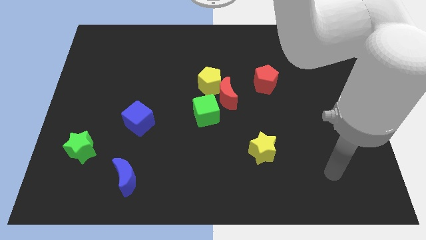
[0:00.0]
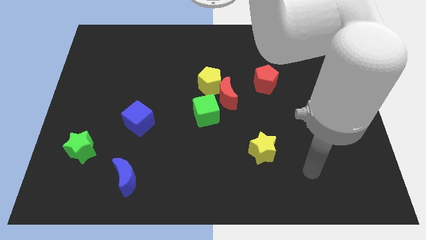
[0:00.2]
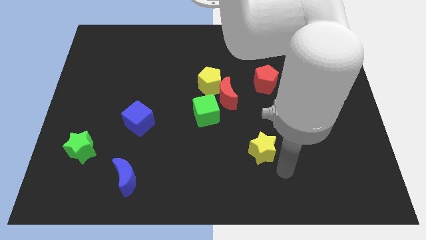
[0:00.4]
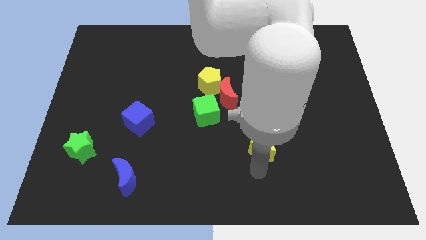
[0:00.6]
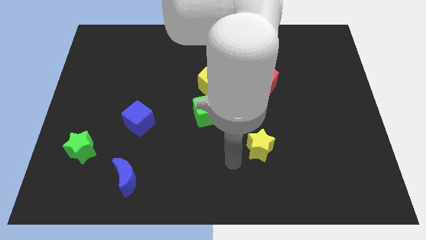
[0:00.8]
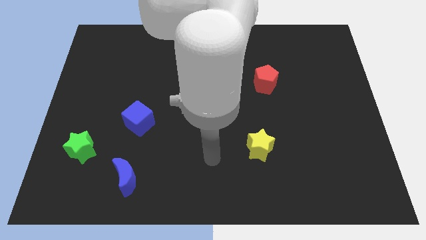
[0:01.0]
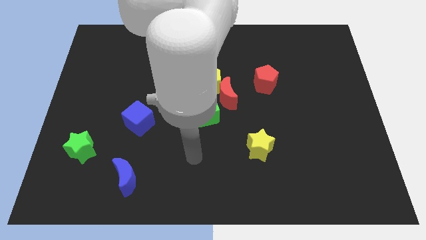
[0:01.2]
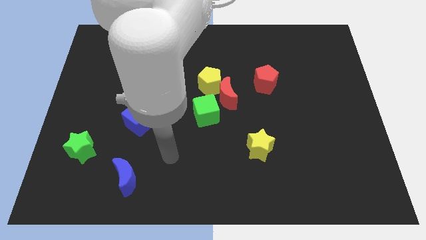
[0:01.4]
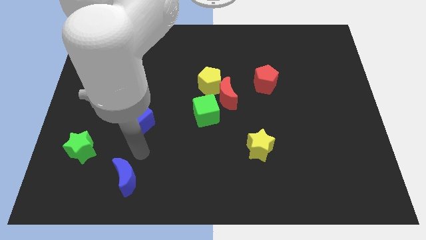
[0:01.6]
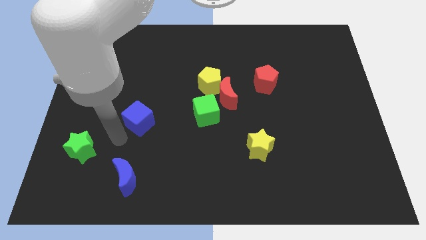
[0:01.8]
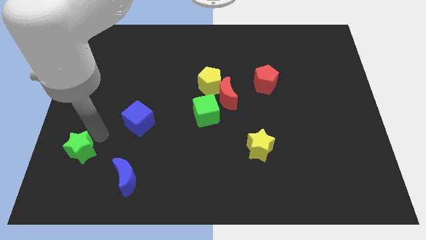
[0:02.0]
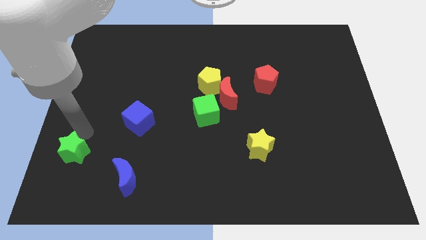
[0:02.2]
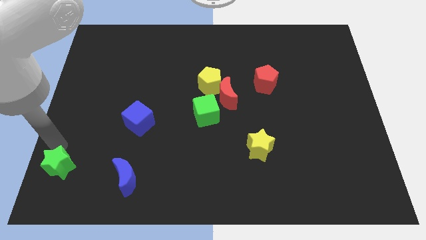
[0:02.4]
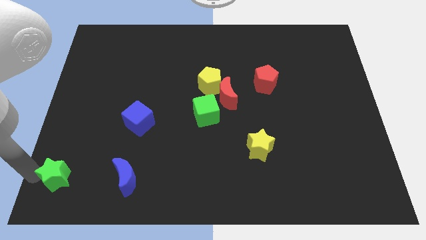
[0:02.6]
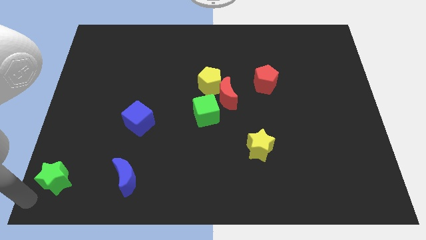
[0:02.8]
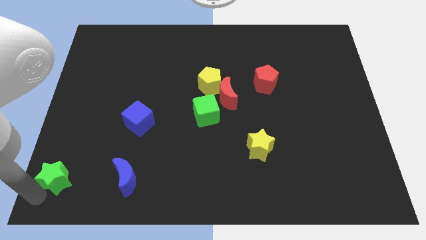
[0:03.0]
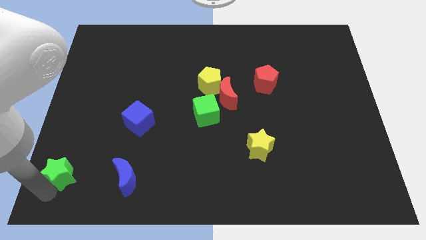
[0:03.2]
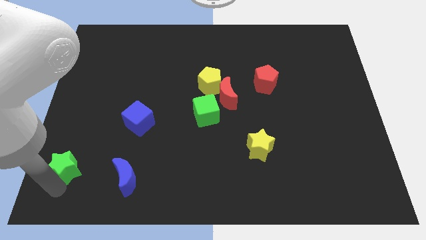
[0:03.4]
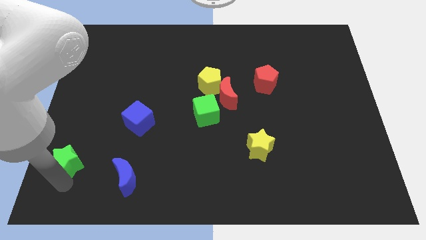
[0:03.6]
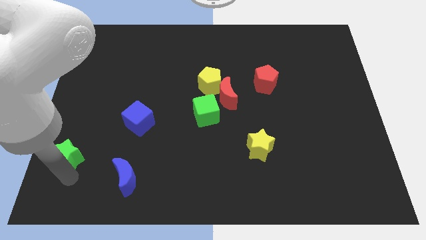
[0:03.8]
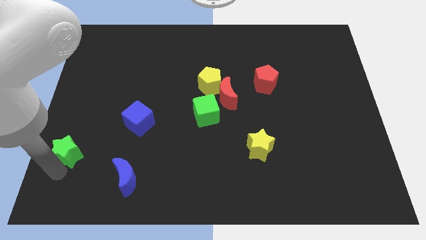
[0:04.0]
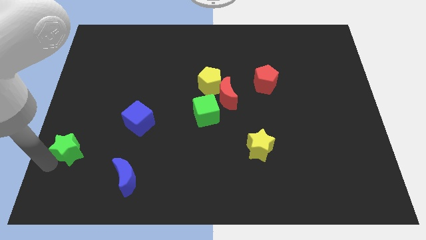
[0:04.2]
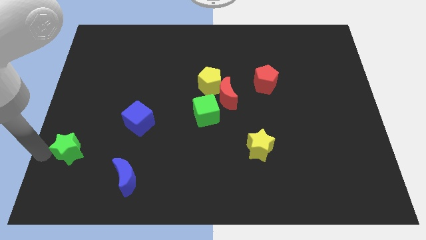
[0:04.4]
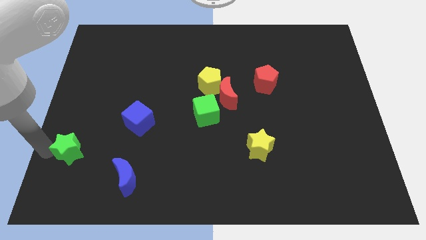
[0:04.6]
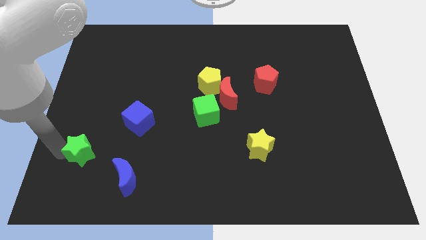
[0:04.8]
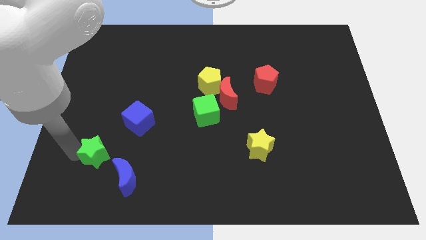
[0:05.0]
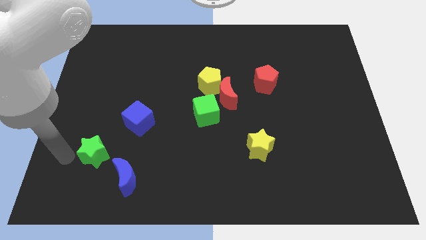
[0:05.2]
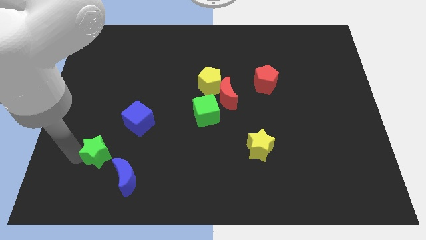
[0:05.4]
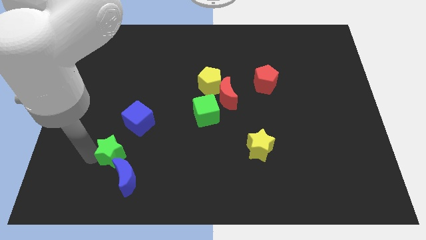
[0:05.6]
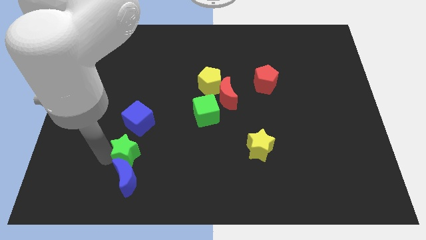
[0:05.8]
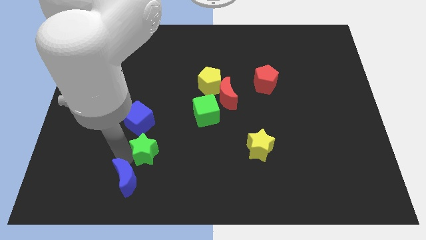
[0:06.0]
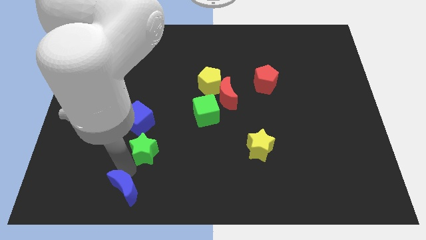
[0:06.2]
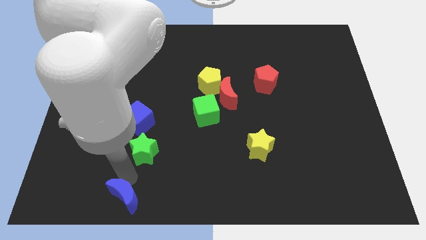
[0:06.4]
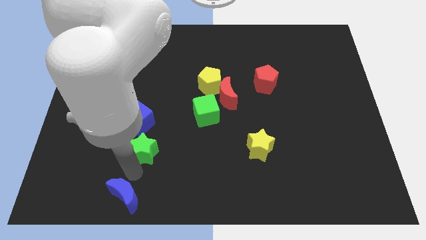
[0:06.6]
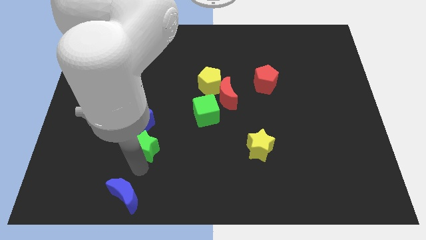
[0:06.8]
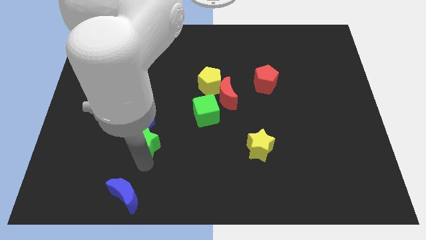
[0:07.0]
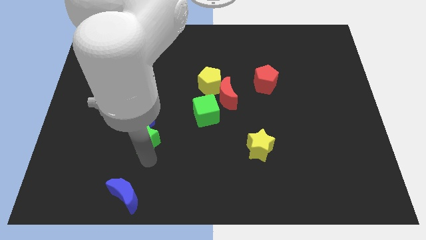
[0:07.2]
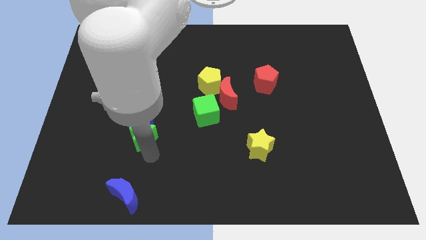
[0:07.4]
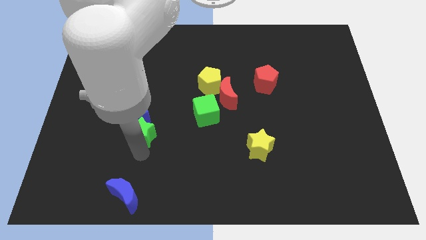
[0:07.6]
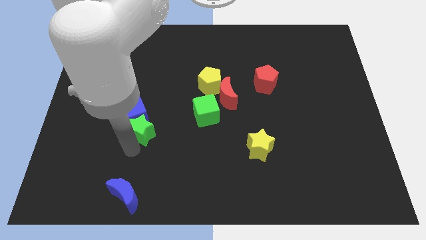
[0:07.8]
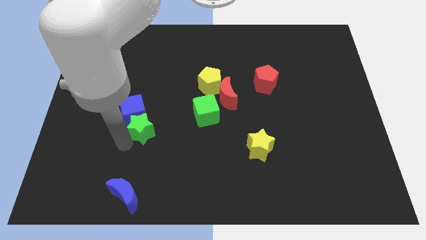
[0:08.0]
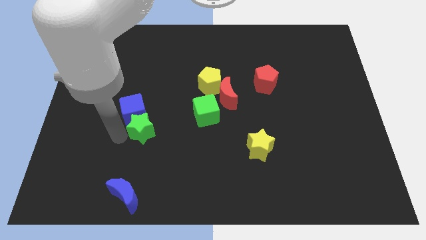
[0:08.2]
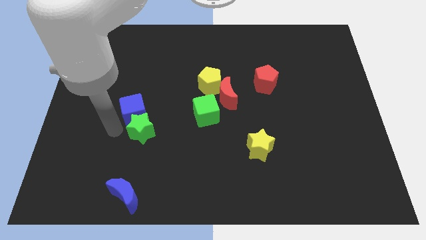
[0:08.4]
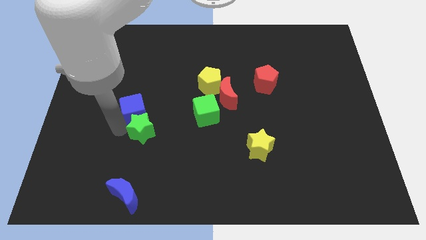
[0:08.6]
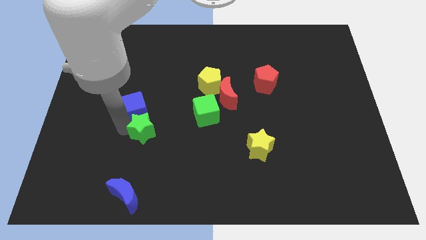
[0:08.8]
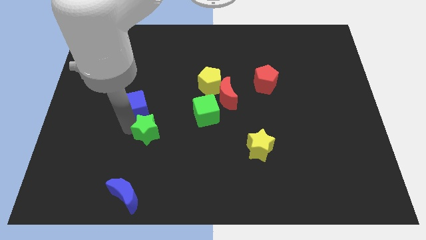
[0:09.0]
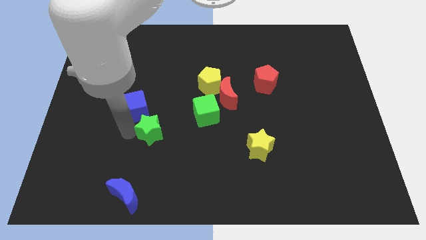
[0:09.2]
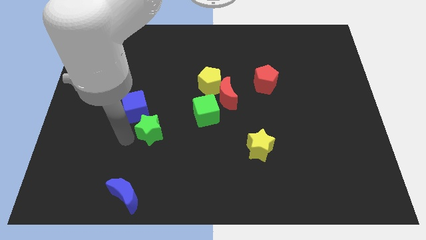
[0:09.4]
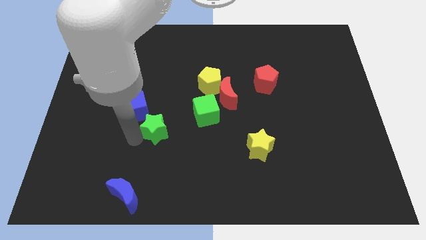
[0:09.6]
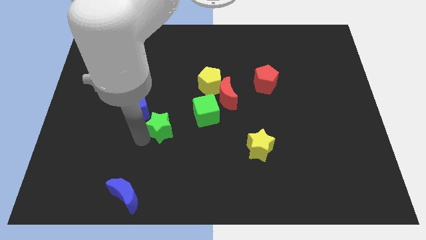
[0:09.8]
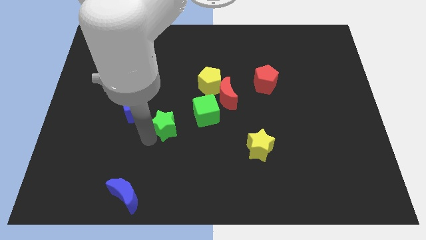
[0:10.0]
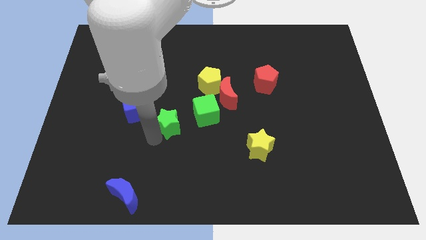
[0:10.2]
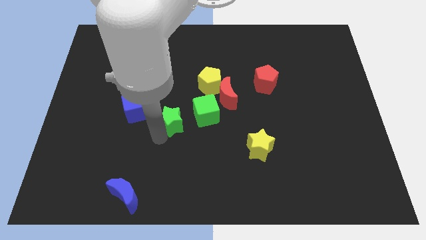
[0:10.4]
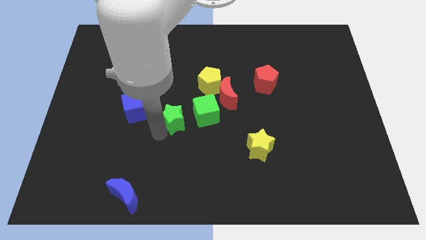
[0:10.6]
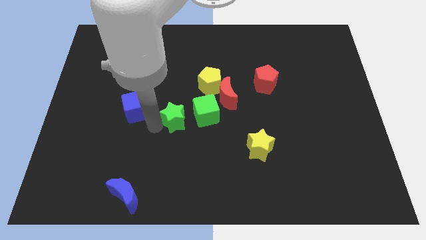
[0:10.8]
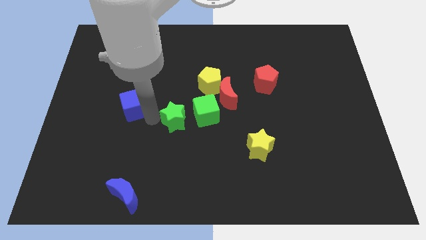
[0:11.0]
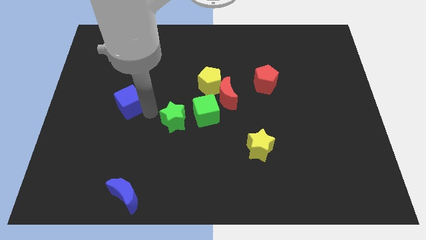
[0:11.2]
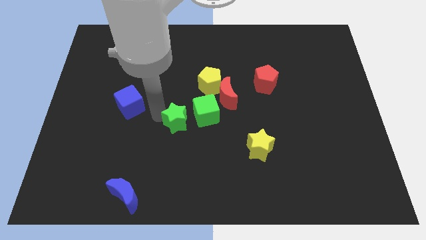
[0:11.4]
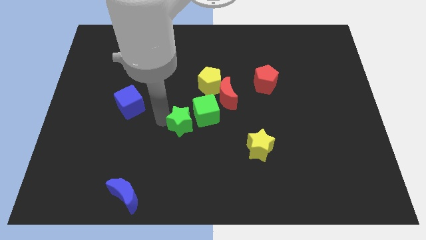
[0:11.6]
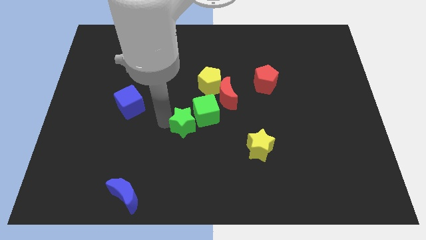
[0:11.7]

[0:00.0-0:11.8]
move the green star close to the green cube

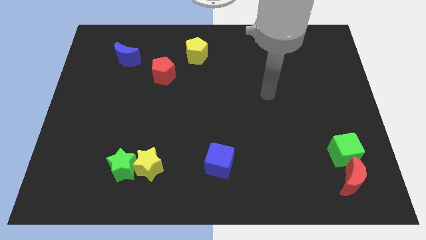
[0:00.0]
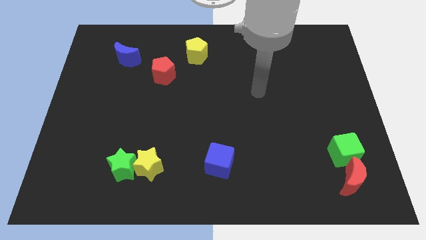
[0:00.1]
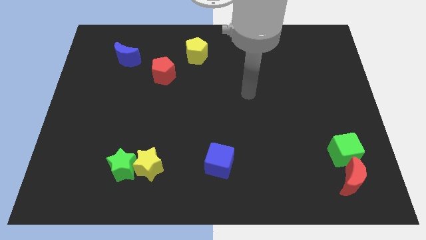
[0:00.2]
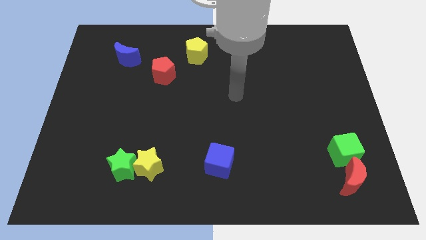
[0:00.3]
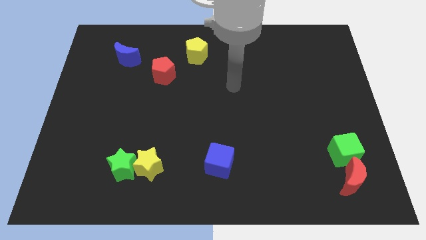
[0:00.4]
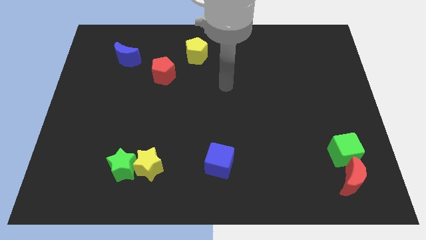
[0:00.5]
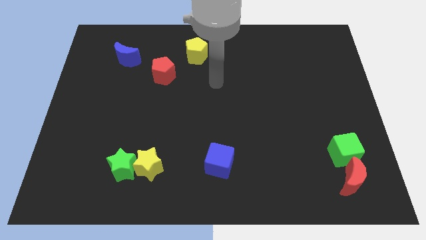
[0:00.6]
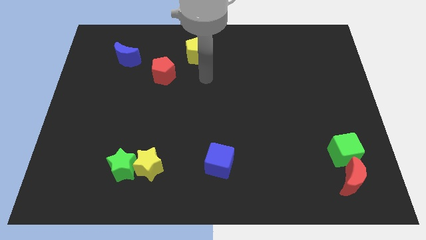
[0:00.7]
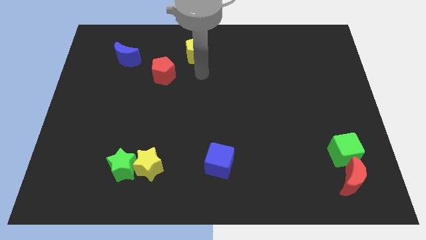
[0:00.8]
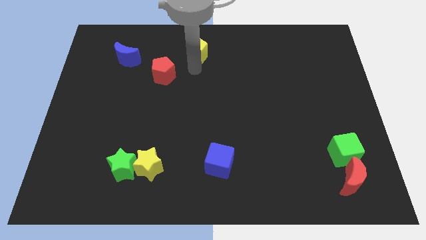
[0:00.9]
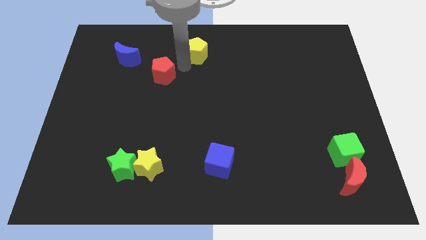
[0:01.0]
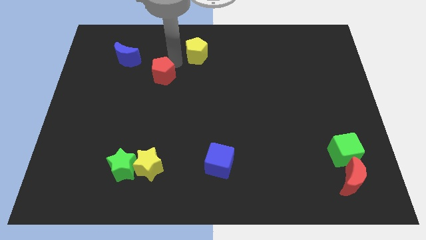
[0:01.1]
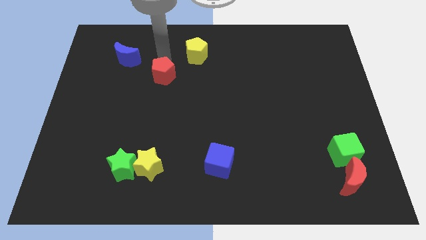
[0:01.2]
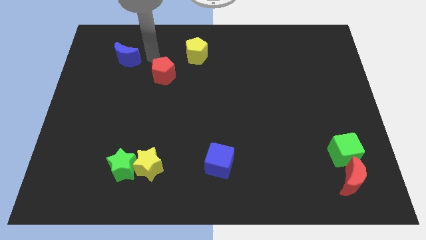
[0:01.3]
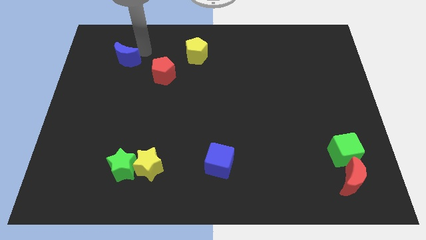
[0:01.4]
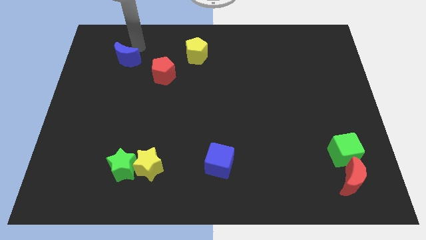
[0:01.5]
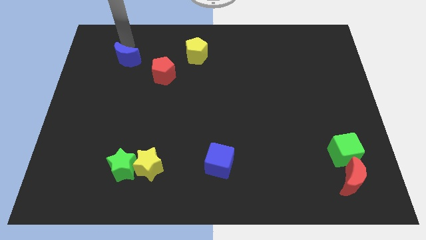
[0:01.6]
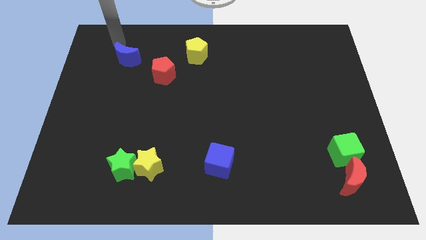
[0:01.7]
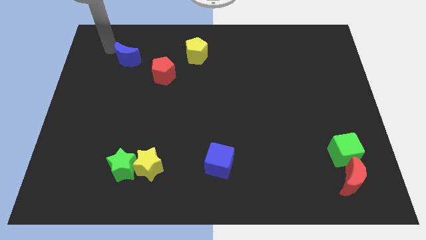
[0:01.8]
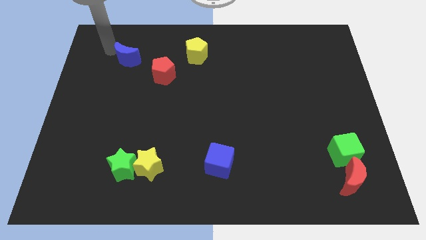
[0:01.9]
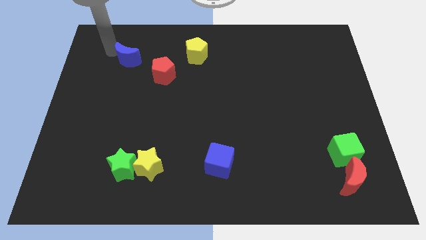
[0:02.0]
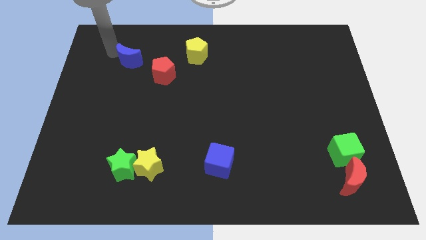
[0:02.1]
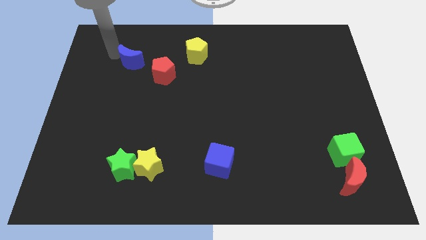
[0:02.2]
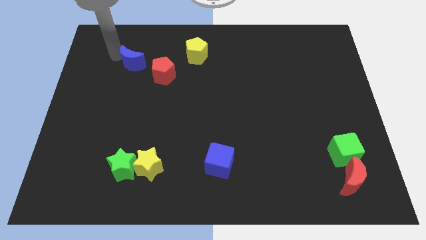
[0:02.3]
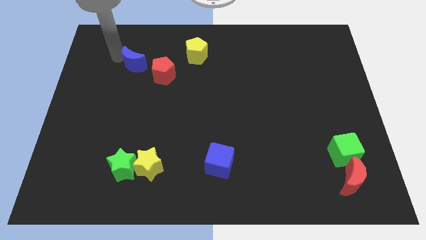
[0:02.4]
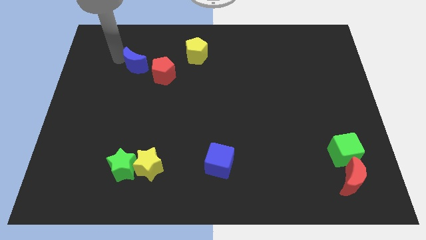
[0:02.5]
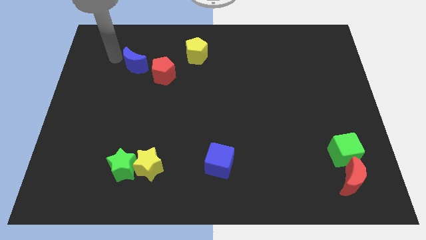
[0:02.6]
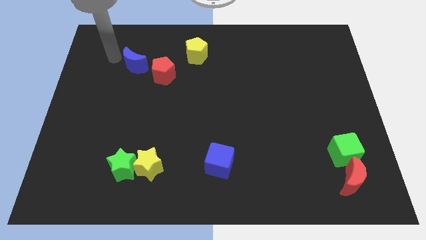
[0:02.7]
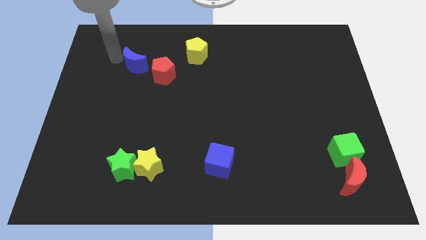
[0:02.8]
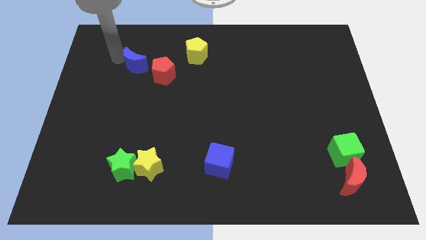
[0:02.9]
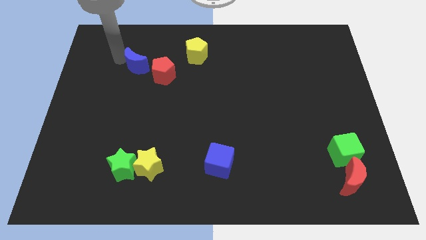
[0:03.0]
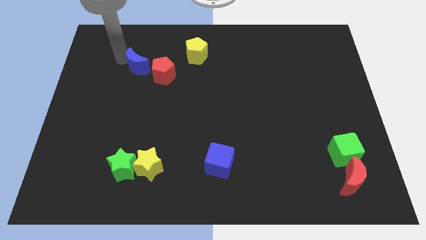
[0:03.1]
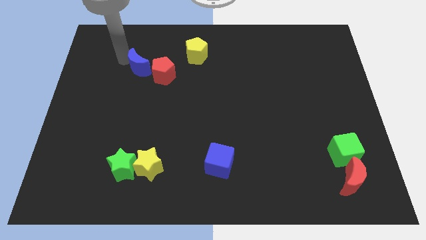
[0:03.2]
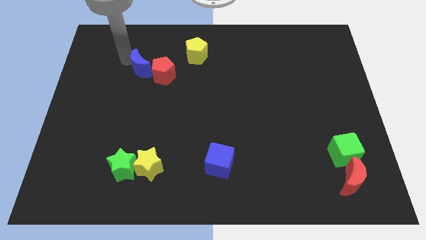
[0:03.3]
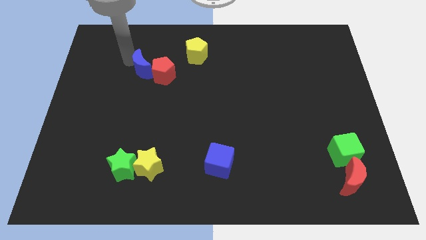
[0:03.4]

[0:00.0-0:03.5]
put the blue moon next to the red pentagon
